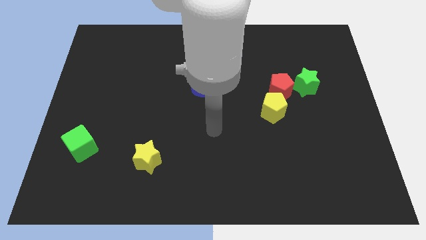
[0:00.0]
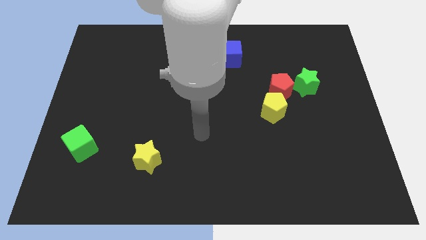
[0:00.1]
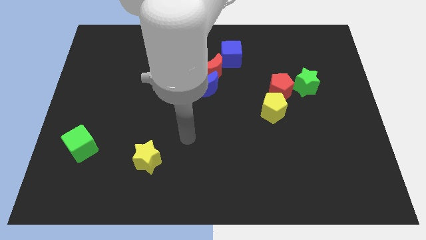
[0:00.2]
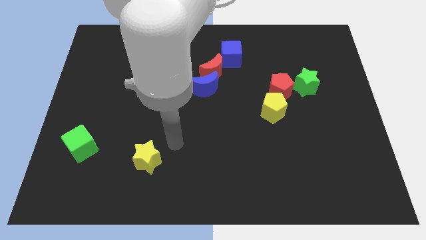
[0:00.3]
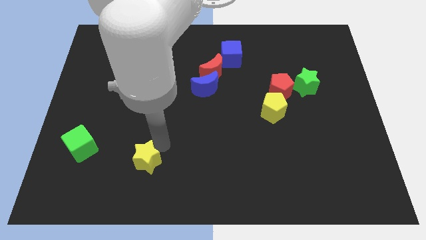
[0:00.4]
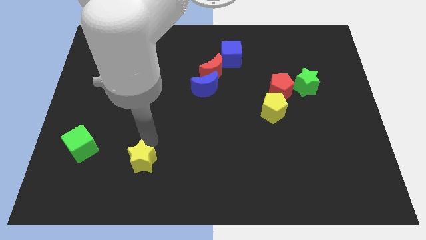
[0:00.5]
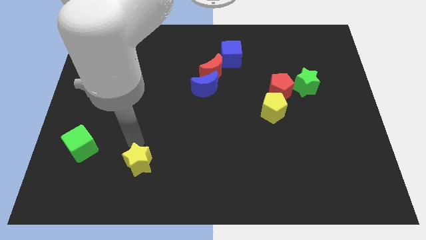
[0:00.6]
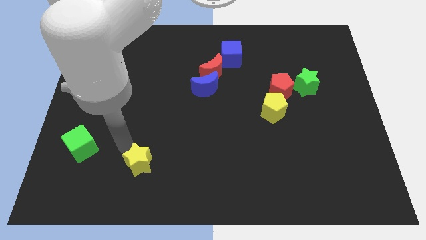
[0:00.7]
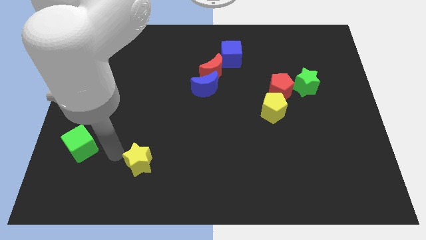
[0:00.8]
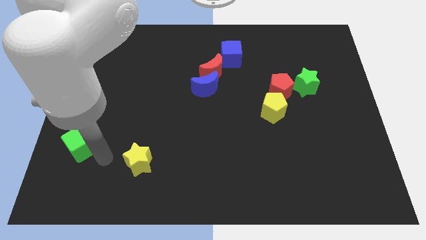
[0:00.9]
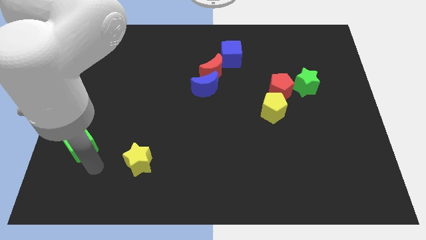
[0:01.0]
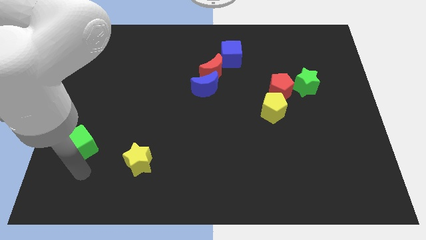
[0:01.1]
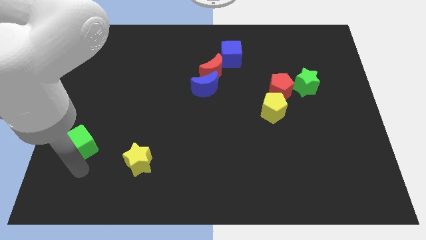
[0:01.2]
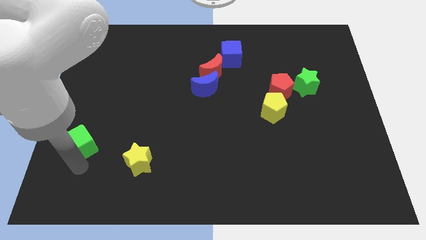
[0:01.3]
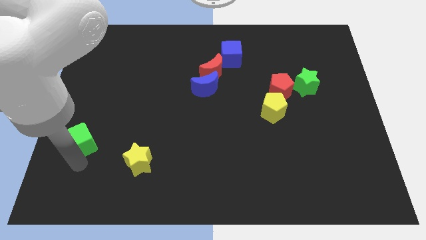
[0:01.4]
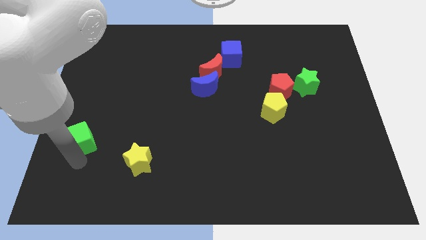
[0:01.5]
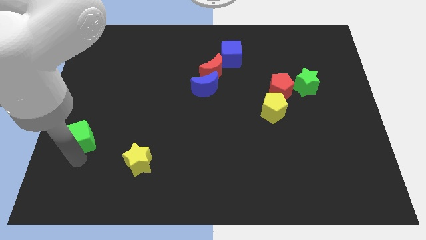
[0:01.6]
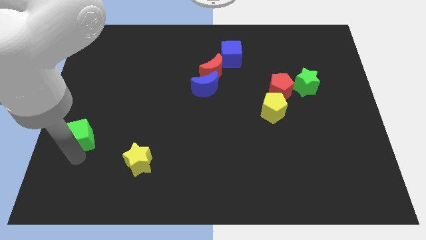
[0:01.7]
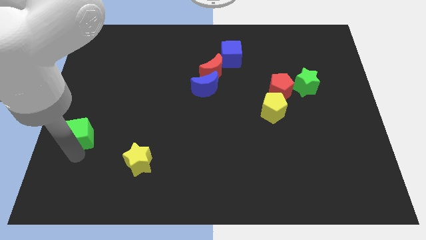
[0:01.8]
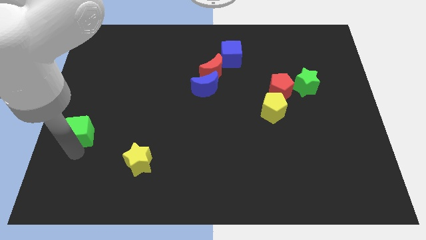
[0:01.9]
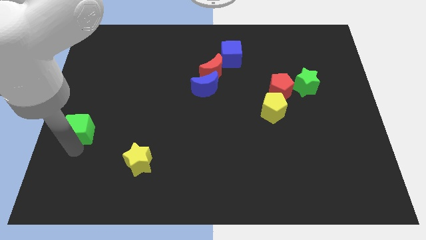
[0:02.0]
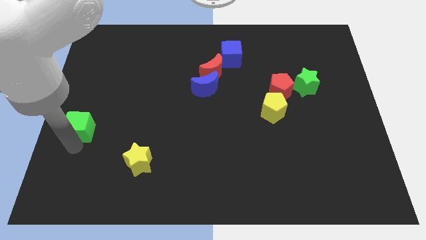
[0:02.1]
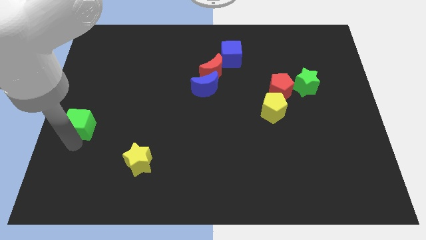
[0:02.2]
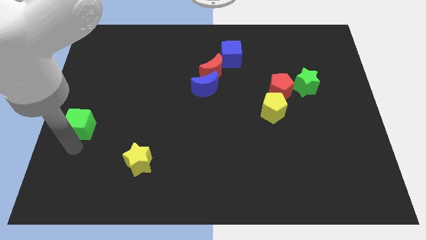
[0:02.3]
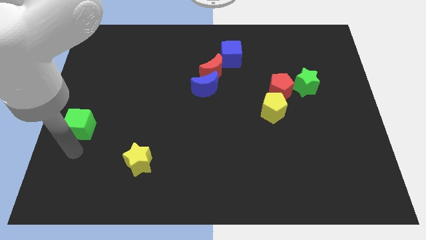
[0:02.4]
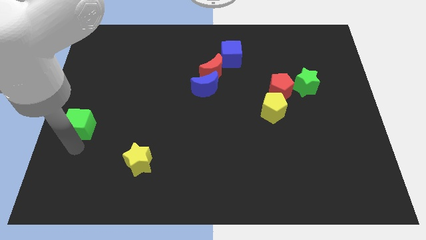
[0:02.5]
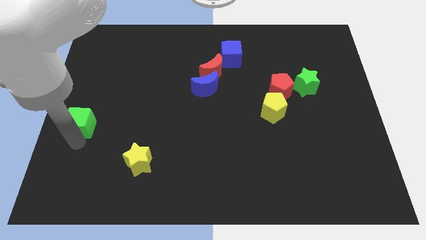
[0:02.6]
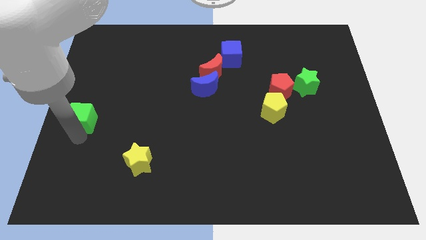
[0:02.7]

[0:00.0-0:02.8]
move the green cube upwards a little bit

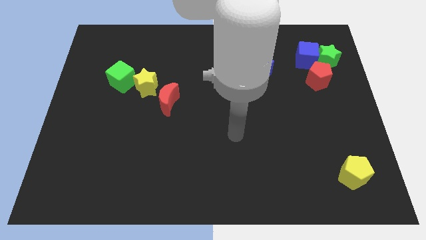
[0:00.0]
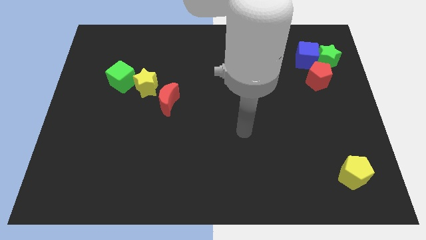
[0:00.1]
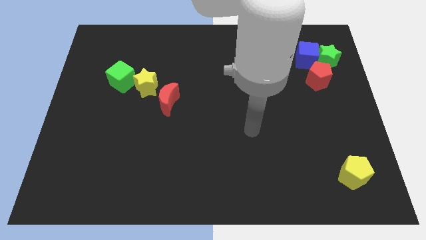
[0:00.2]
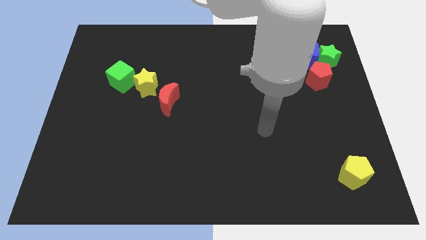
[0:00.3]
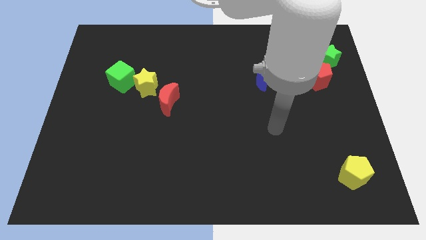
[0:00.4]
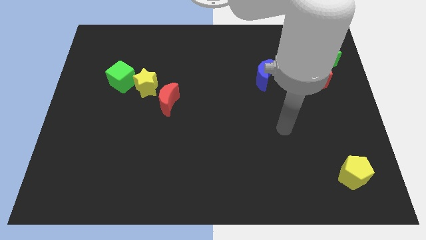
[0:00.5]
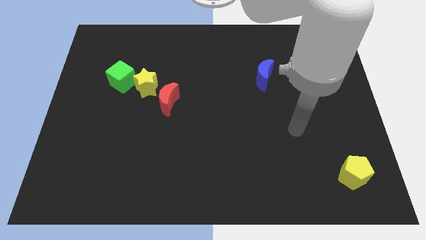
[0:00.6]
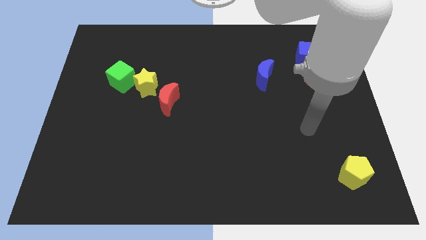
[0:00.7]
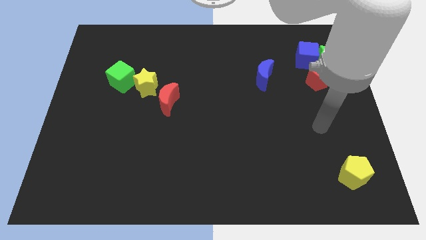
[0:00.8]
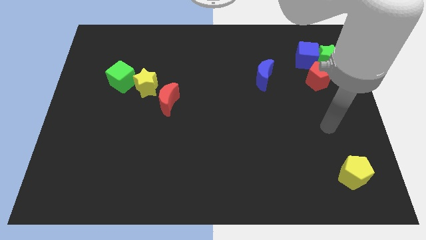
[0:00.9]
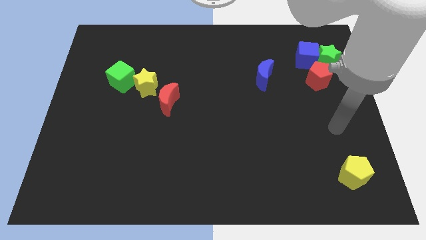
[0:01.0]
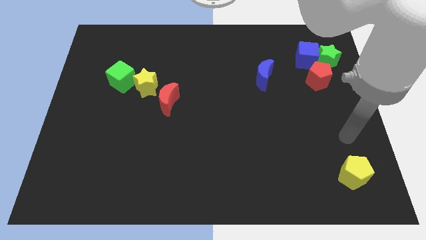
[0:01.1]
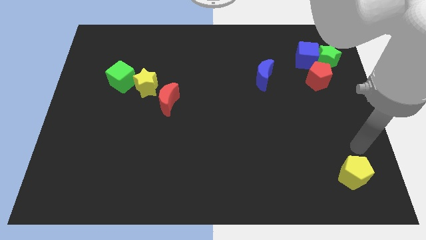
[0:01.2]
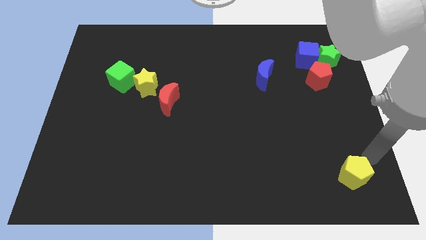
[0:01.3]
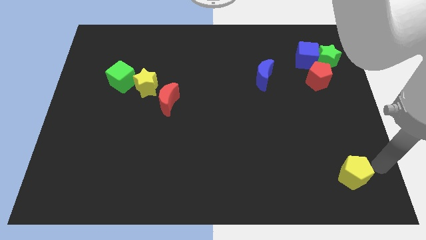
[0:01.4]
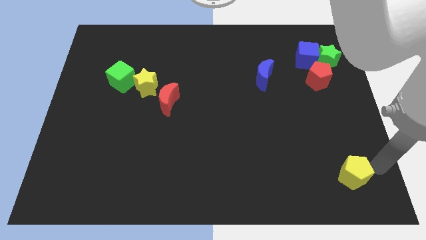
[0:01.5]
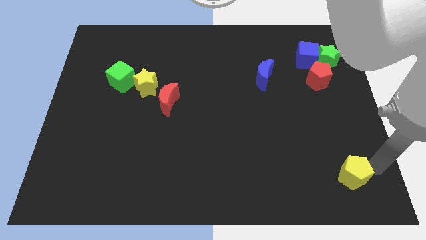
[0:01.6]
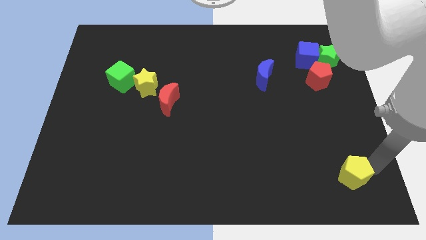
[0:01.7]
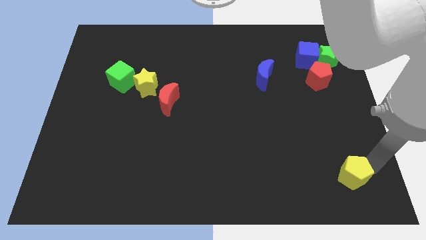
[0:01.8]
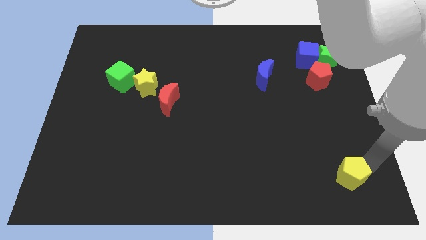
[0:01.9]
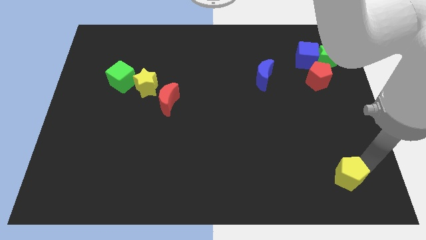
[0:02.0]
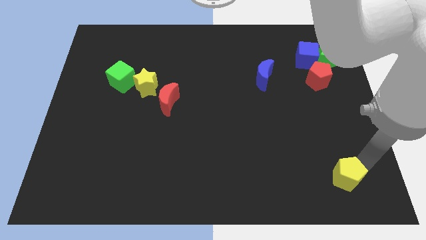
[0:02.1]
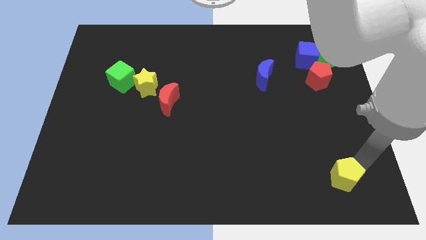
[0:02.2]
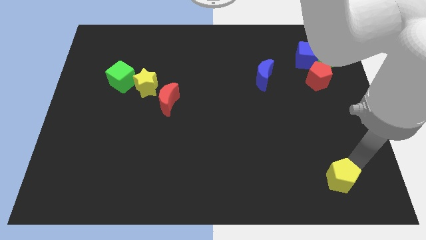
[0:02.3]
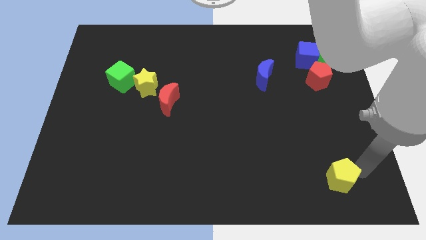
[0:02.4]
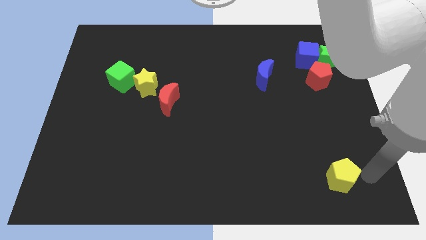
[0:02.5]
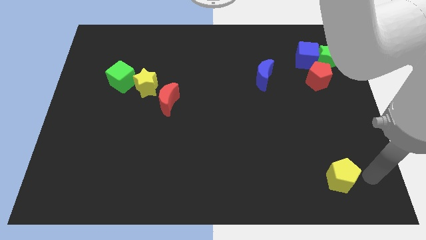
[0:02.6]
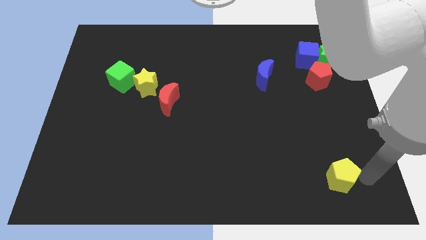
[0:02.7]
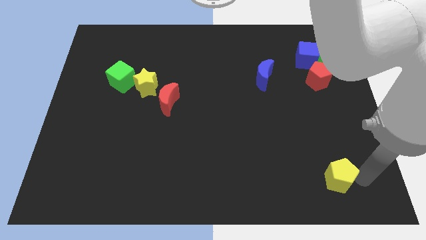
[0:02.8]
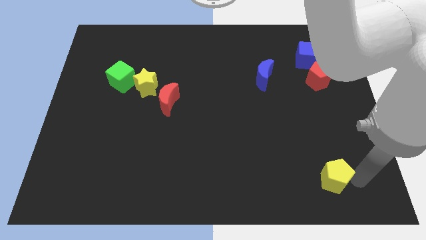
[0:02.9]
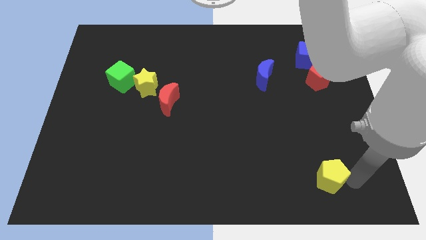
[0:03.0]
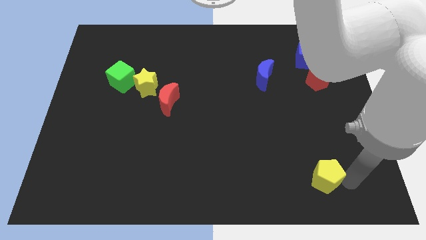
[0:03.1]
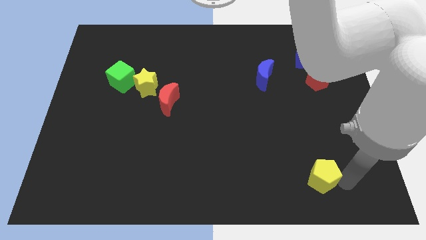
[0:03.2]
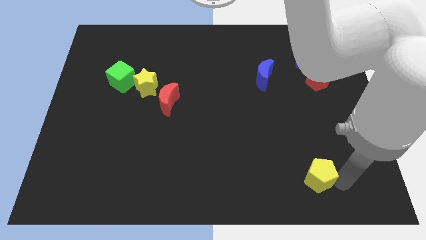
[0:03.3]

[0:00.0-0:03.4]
push the yellow pentagon slightly left

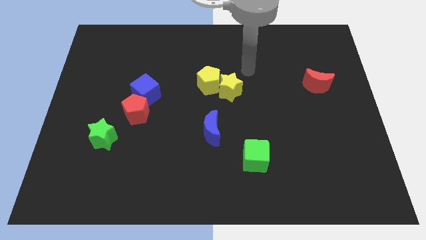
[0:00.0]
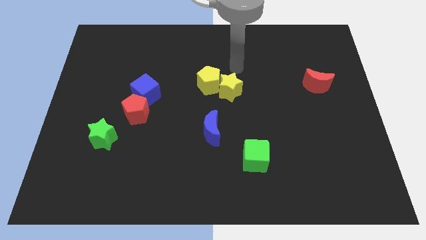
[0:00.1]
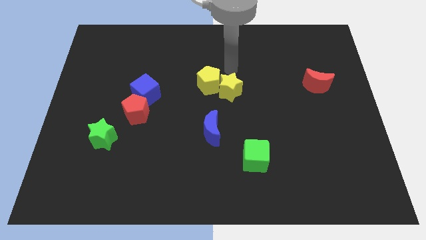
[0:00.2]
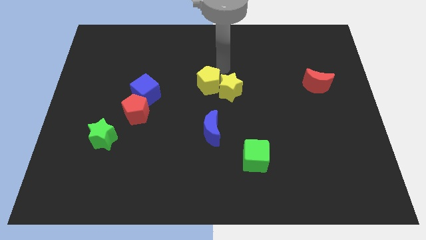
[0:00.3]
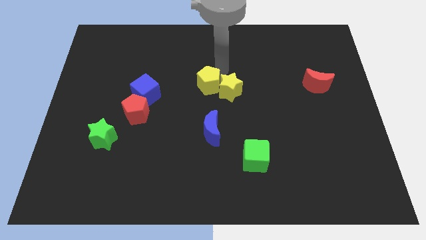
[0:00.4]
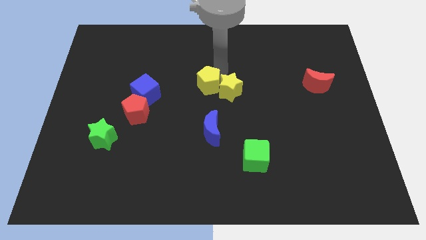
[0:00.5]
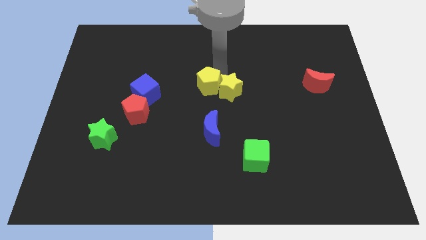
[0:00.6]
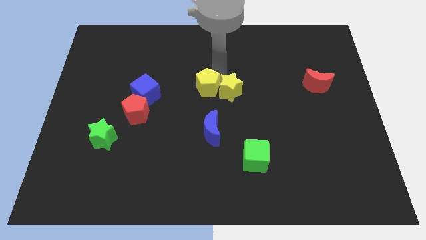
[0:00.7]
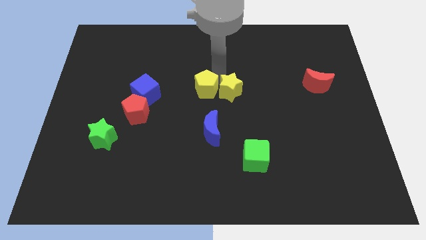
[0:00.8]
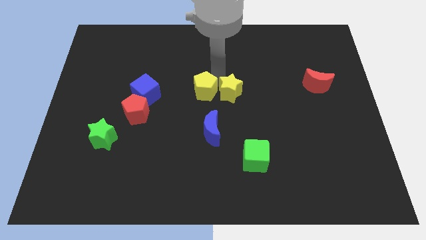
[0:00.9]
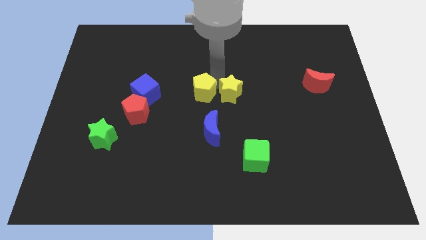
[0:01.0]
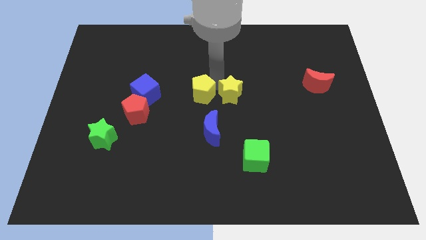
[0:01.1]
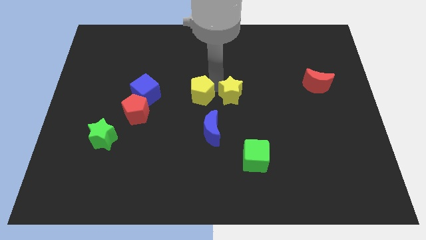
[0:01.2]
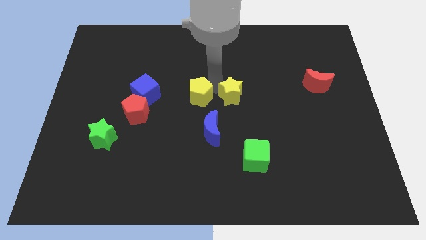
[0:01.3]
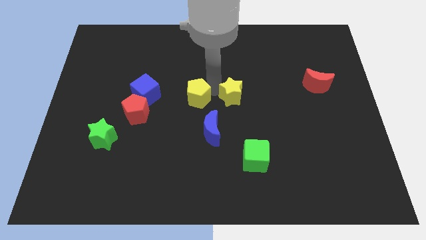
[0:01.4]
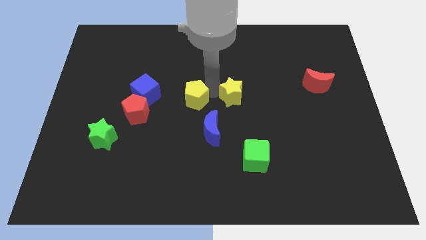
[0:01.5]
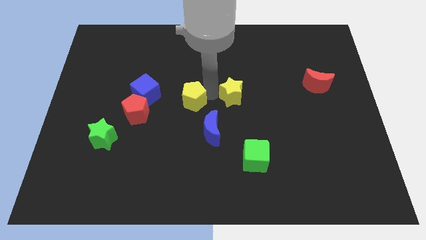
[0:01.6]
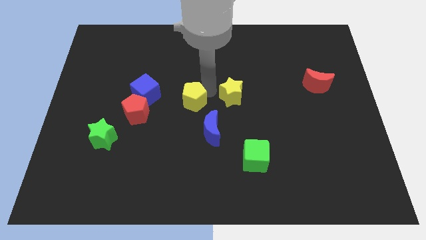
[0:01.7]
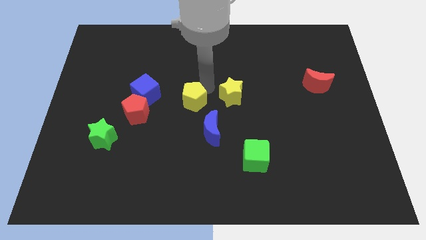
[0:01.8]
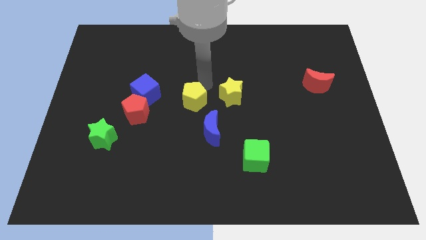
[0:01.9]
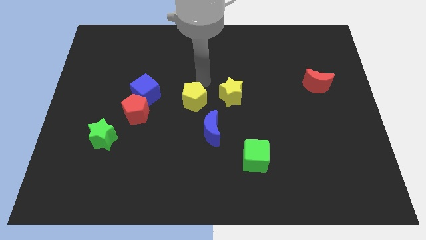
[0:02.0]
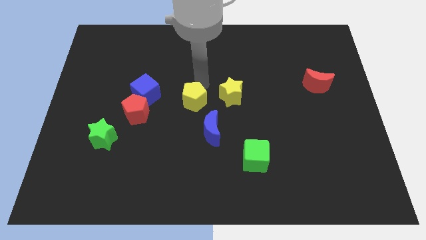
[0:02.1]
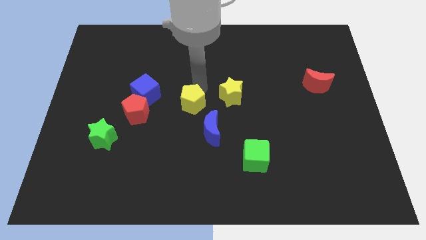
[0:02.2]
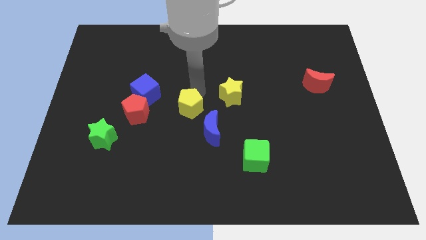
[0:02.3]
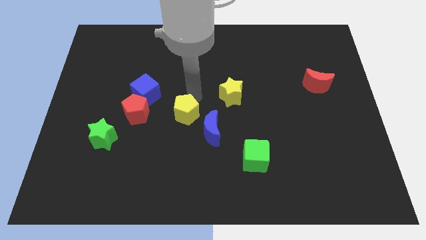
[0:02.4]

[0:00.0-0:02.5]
slightly move the yellow pentagon down
